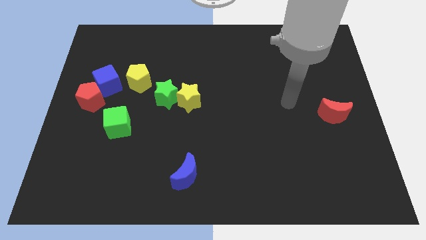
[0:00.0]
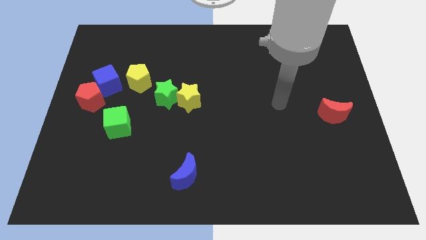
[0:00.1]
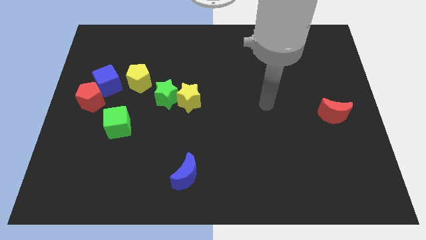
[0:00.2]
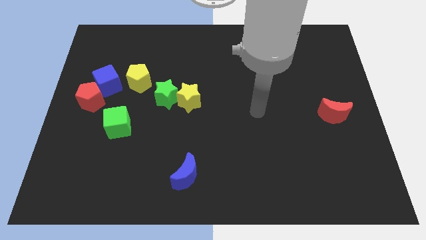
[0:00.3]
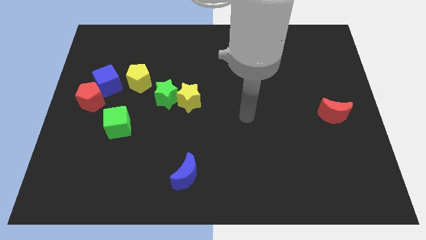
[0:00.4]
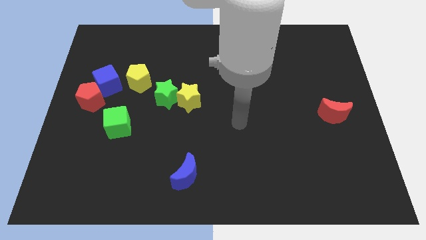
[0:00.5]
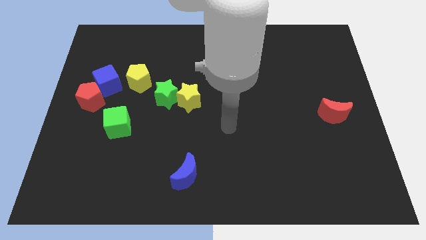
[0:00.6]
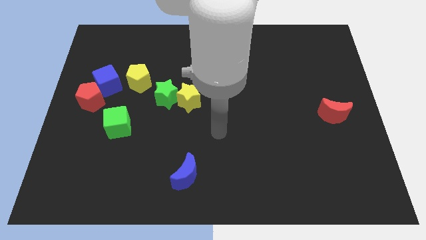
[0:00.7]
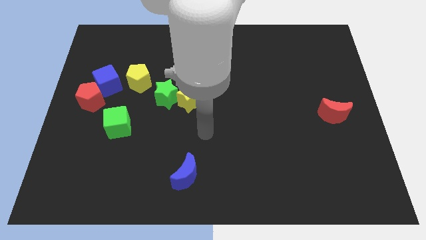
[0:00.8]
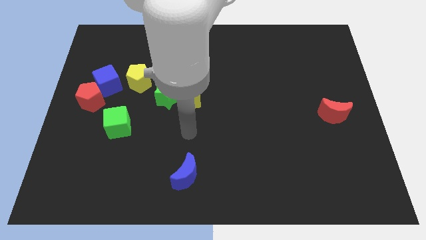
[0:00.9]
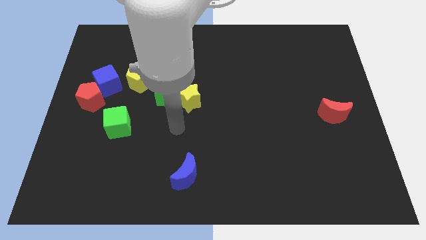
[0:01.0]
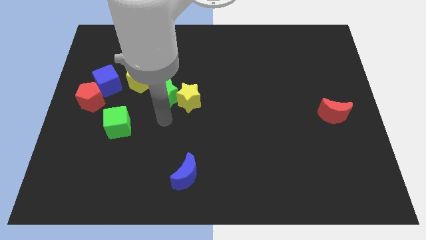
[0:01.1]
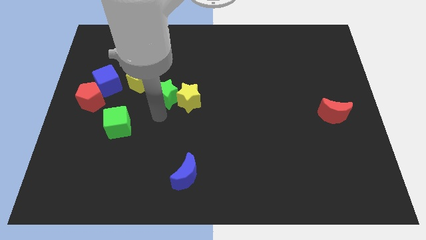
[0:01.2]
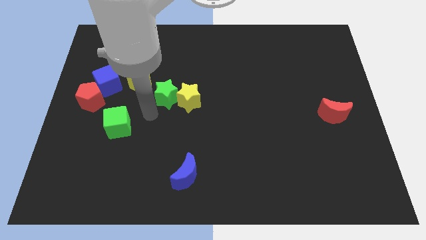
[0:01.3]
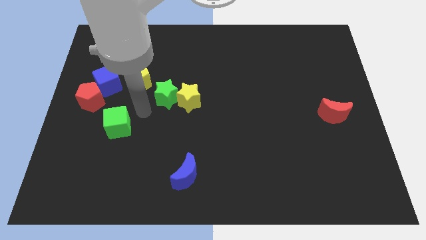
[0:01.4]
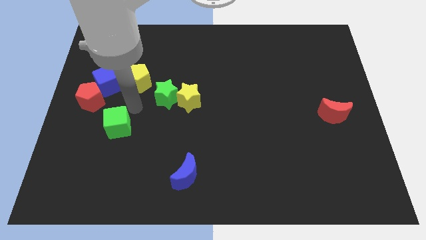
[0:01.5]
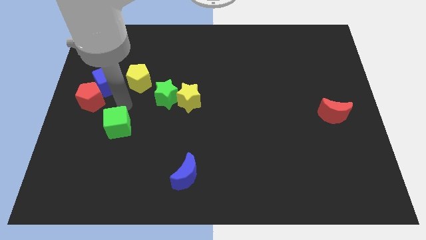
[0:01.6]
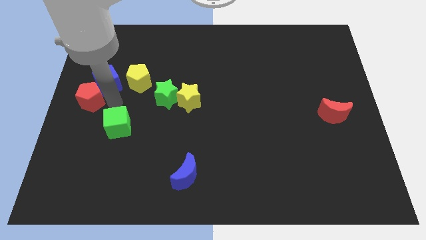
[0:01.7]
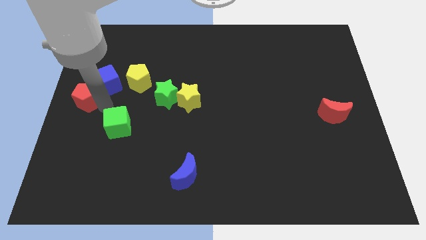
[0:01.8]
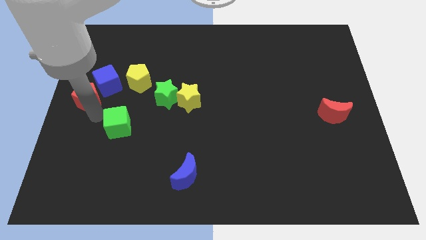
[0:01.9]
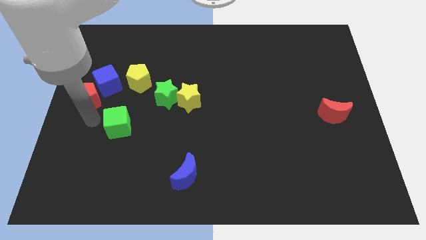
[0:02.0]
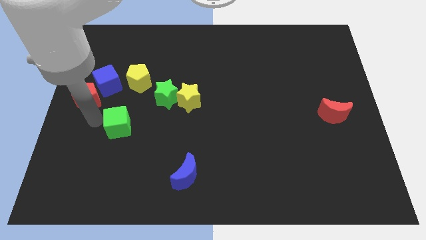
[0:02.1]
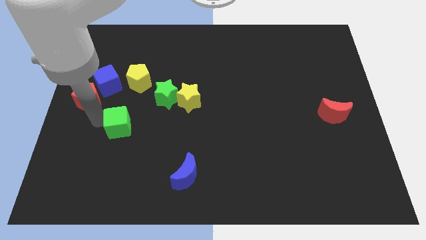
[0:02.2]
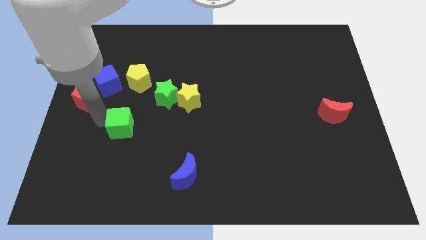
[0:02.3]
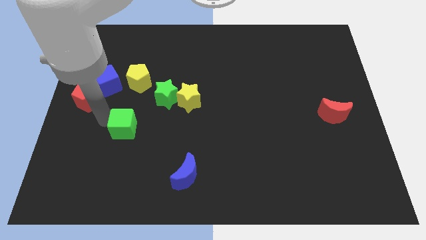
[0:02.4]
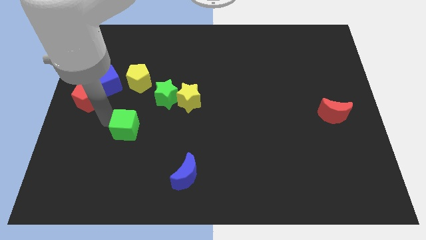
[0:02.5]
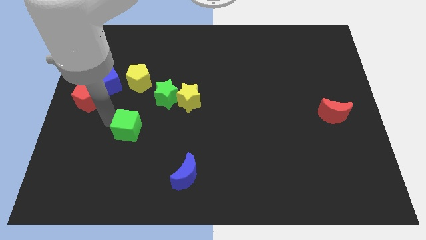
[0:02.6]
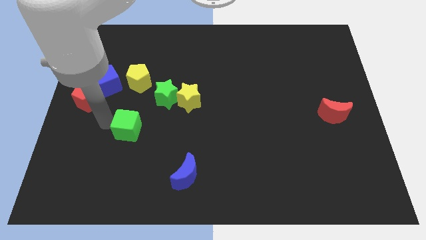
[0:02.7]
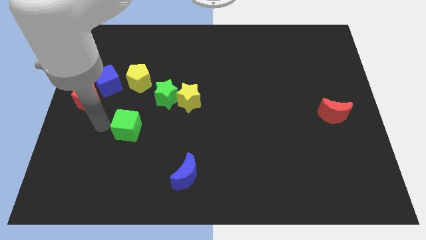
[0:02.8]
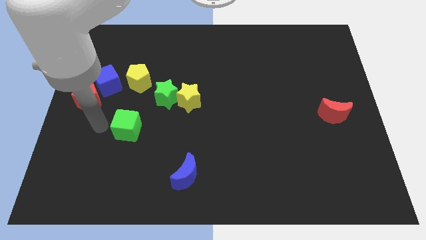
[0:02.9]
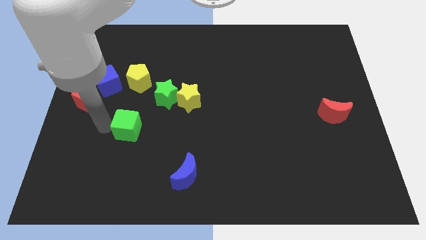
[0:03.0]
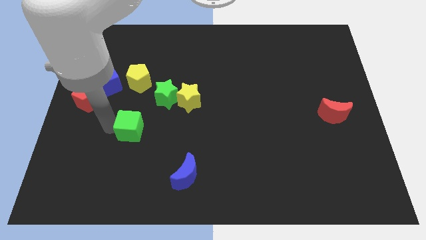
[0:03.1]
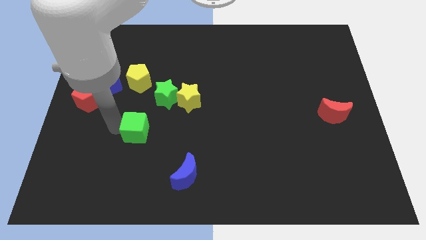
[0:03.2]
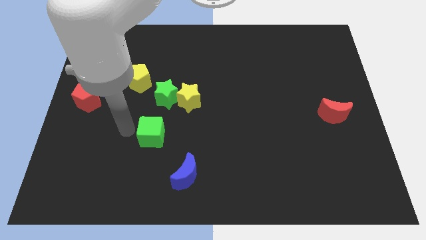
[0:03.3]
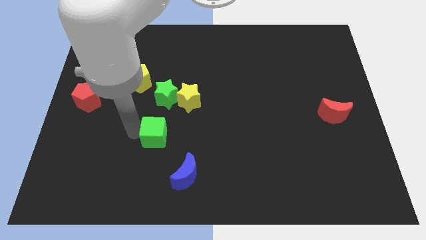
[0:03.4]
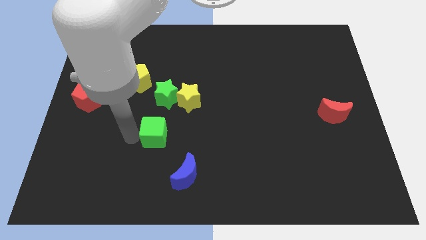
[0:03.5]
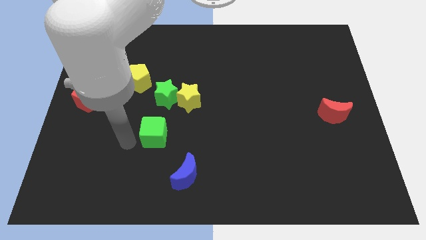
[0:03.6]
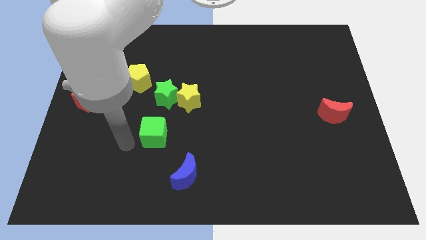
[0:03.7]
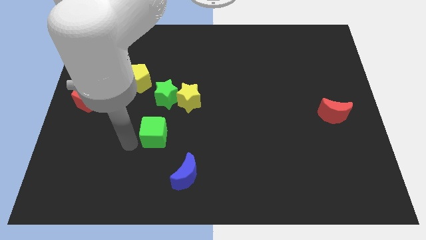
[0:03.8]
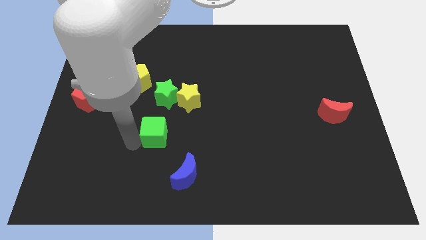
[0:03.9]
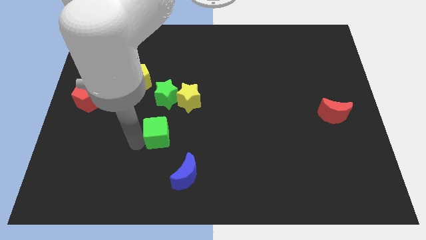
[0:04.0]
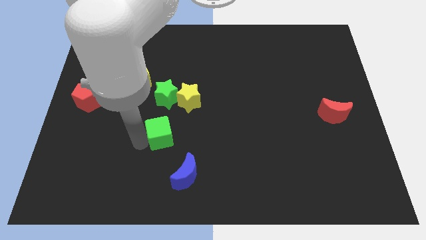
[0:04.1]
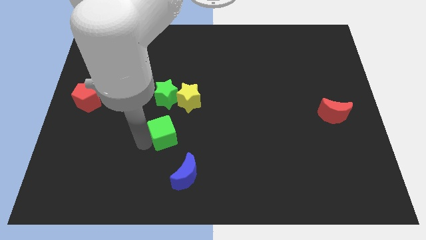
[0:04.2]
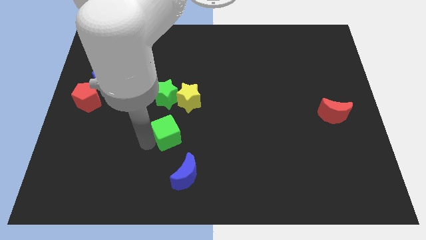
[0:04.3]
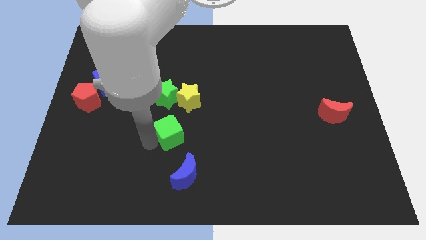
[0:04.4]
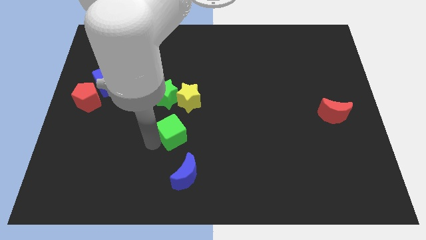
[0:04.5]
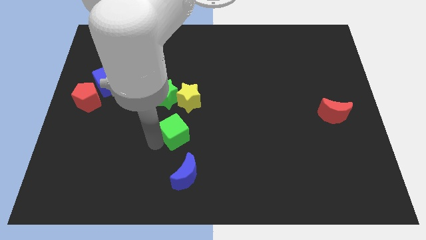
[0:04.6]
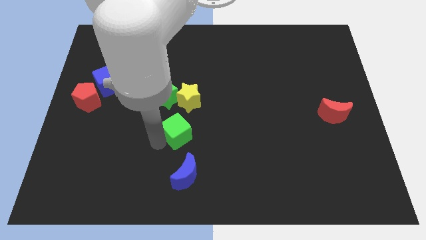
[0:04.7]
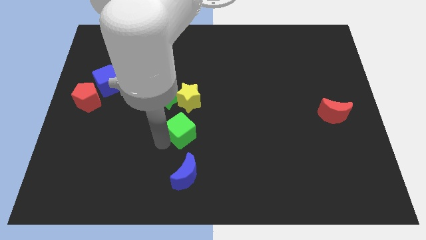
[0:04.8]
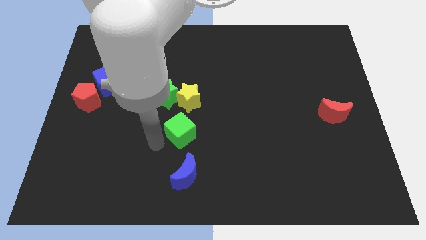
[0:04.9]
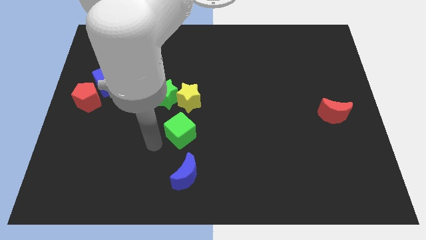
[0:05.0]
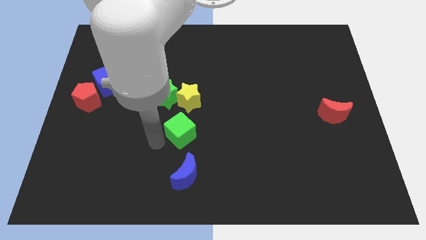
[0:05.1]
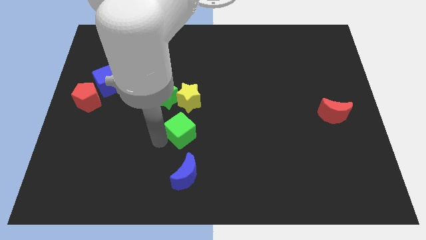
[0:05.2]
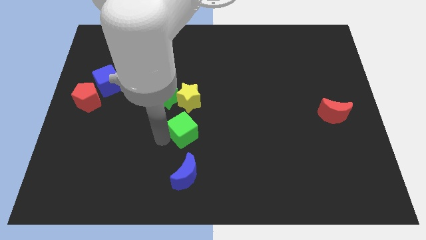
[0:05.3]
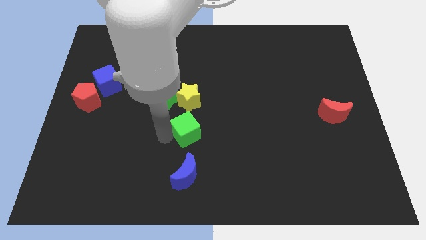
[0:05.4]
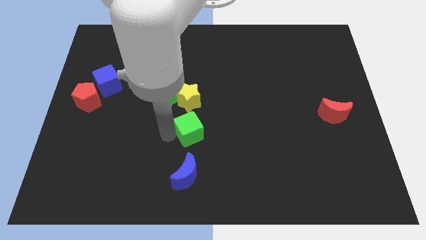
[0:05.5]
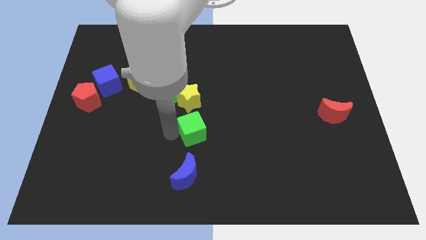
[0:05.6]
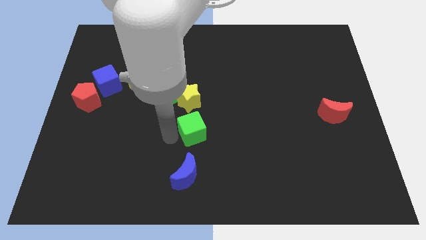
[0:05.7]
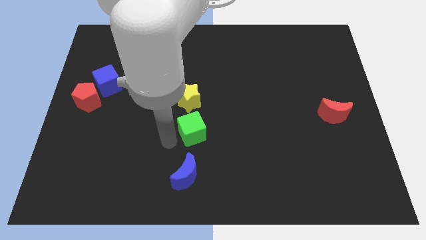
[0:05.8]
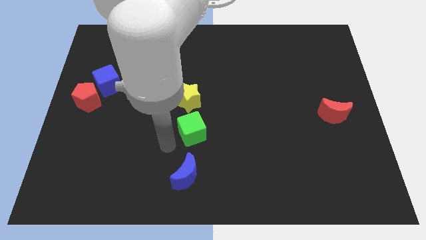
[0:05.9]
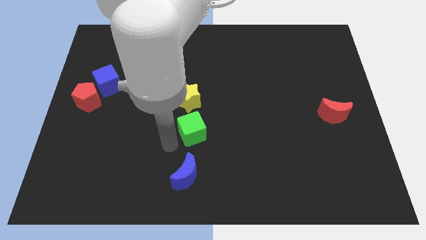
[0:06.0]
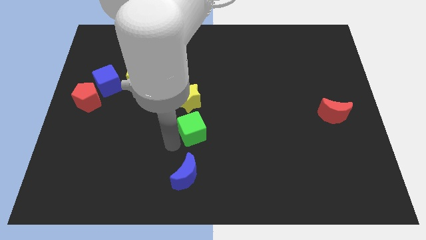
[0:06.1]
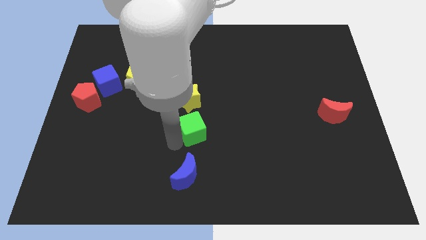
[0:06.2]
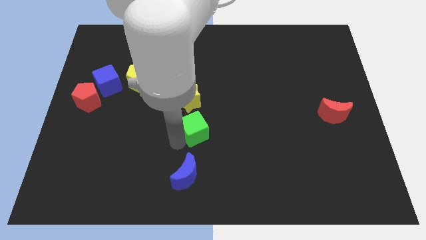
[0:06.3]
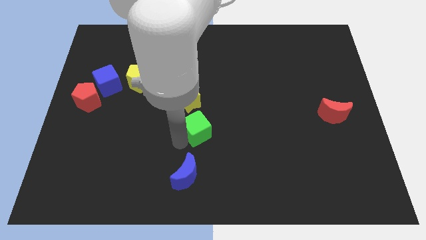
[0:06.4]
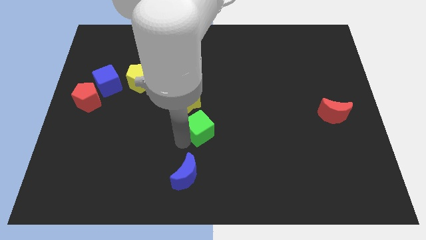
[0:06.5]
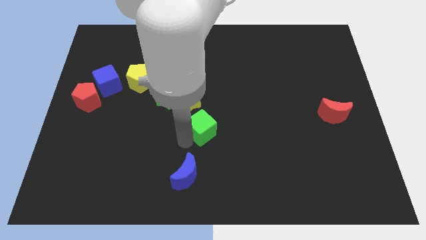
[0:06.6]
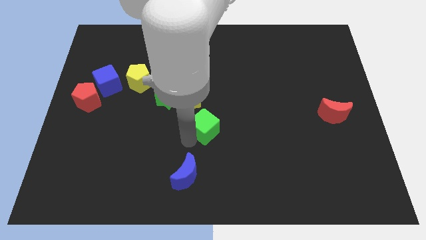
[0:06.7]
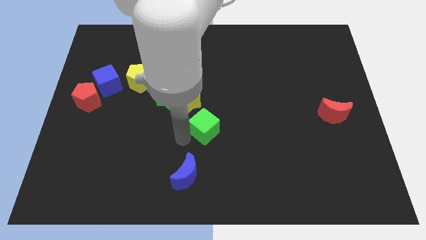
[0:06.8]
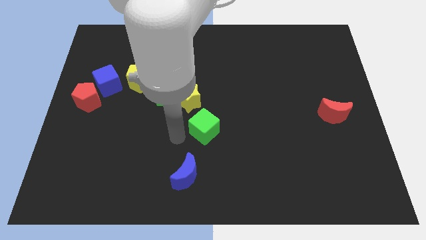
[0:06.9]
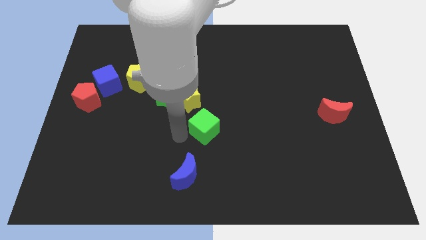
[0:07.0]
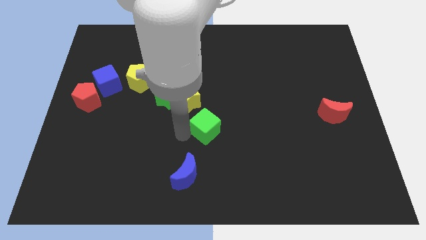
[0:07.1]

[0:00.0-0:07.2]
move the green cube to the right

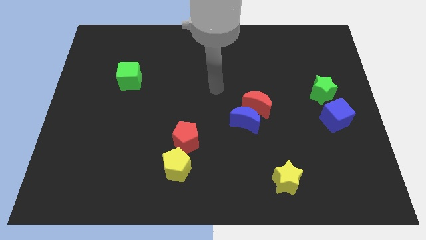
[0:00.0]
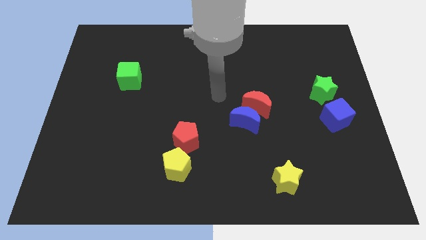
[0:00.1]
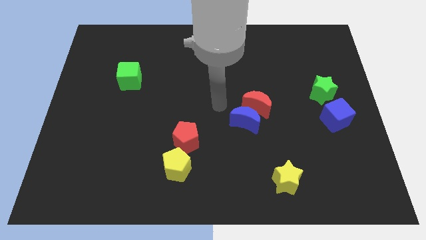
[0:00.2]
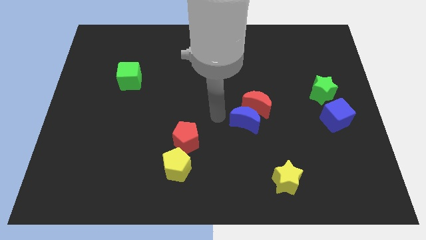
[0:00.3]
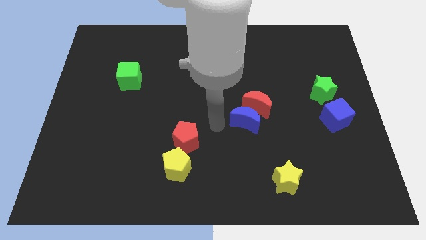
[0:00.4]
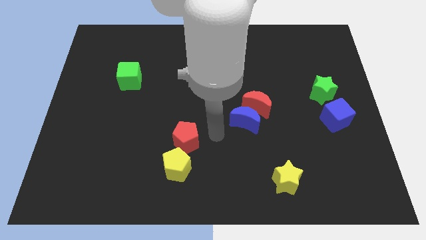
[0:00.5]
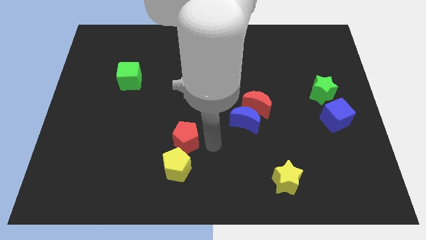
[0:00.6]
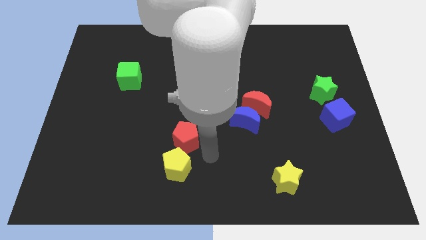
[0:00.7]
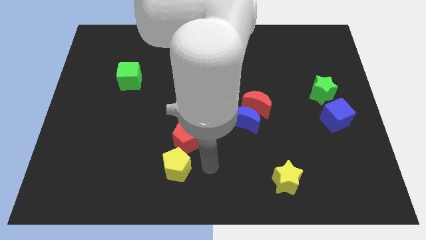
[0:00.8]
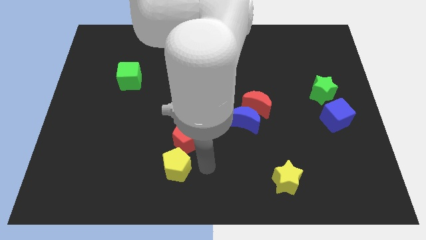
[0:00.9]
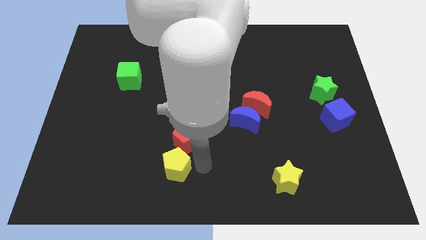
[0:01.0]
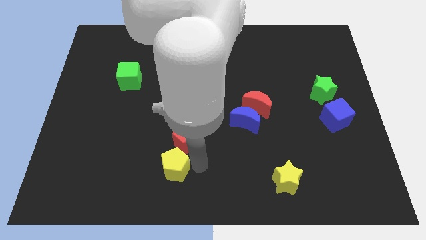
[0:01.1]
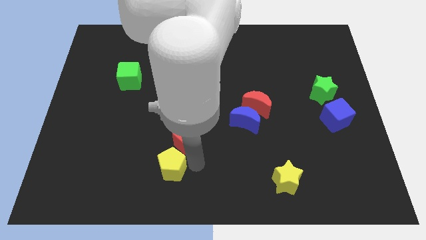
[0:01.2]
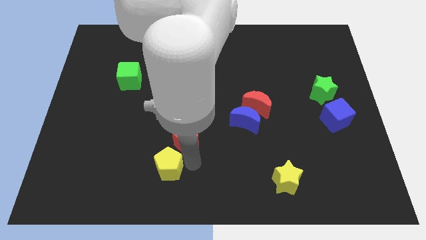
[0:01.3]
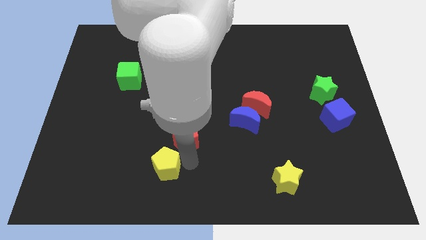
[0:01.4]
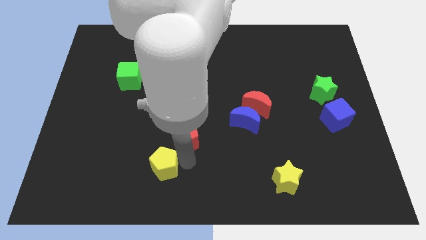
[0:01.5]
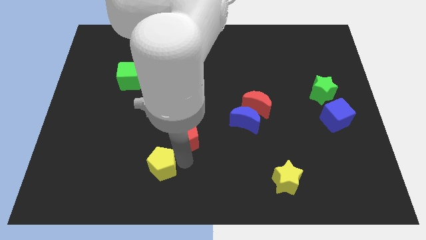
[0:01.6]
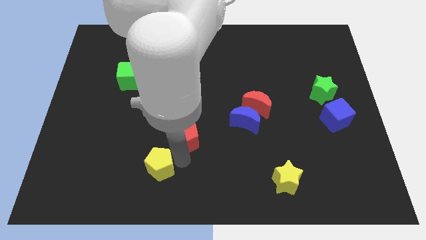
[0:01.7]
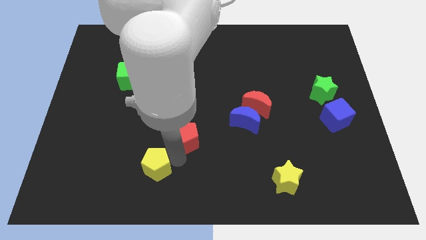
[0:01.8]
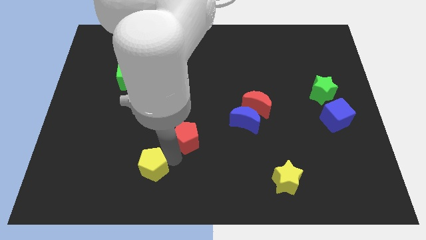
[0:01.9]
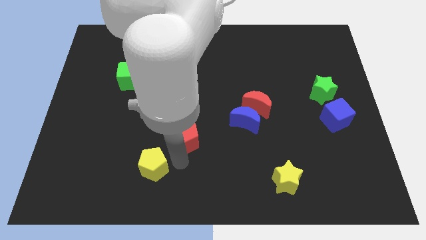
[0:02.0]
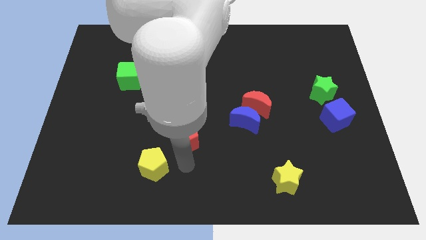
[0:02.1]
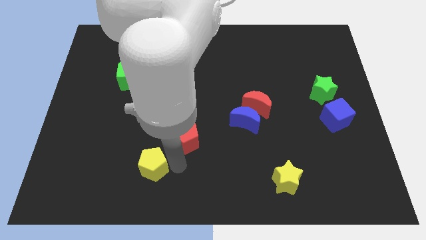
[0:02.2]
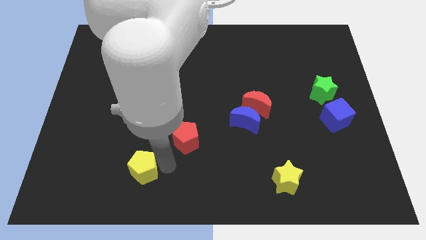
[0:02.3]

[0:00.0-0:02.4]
slide the yellow pentagon a little bit to the left
